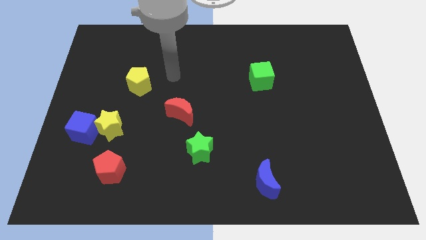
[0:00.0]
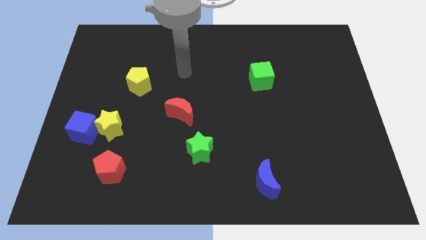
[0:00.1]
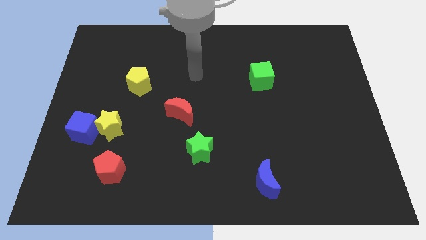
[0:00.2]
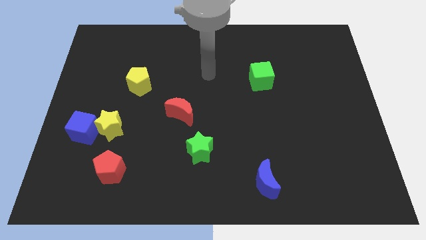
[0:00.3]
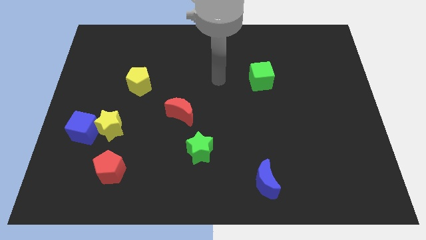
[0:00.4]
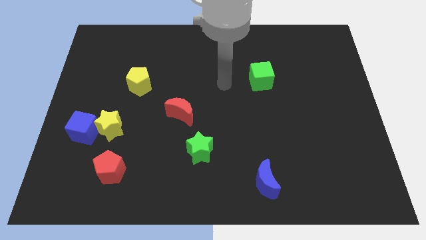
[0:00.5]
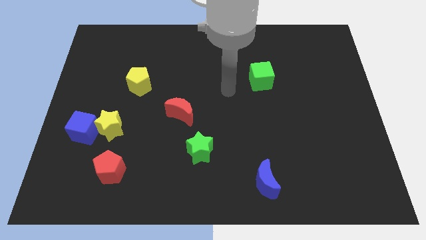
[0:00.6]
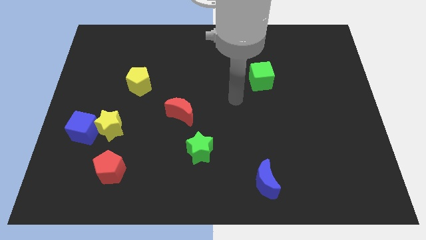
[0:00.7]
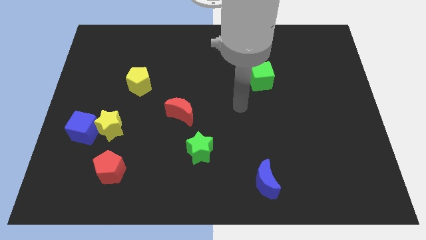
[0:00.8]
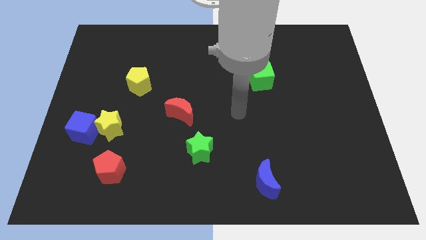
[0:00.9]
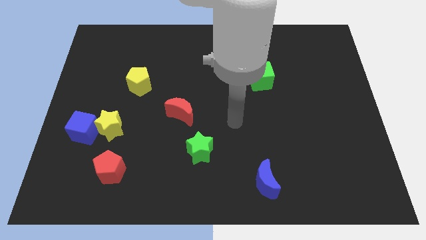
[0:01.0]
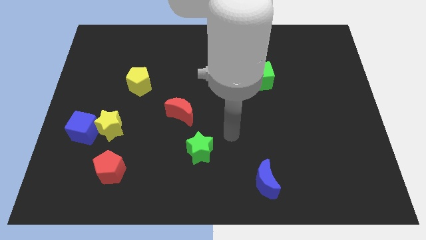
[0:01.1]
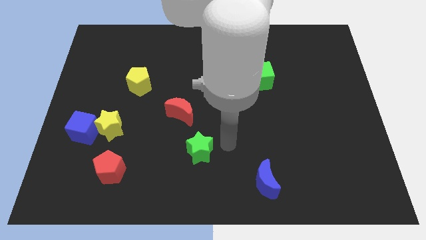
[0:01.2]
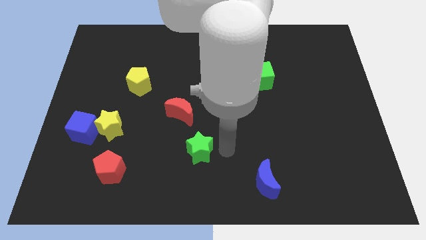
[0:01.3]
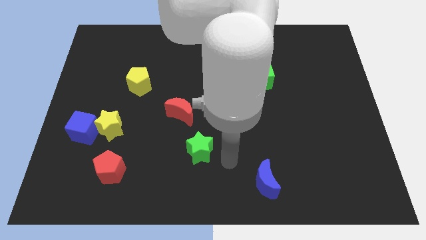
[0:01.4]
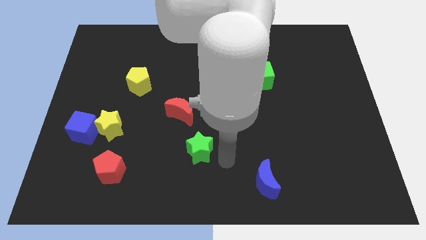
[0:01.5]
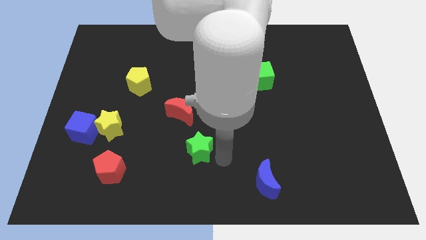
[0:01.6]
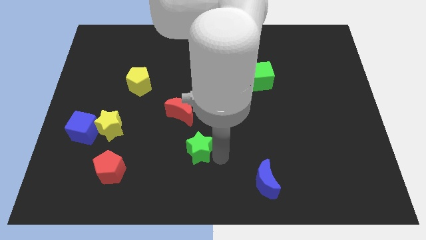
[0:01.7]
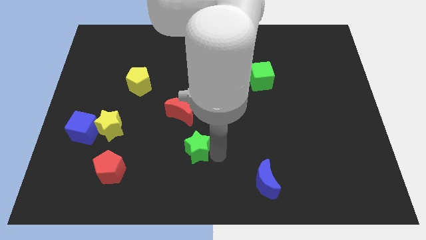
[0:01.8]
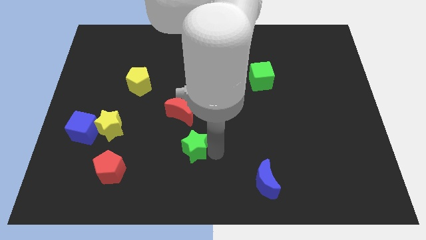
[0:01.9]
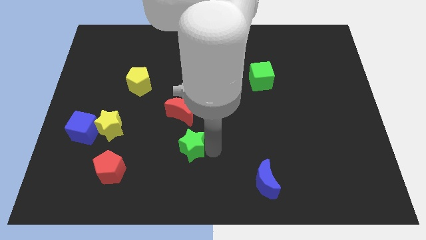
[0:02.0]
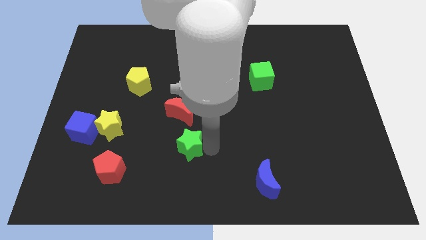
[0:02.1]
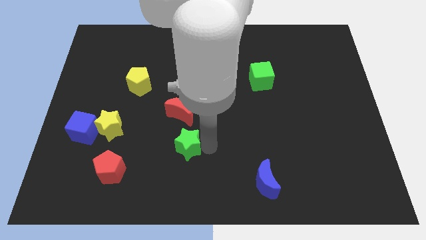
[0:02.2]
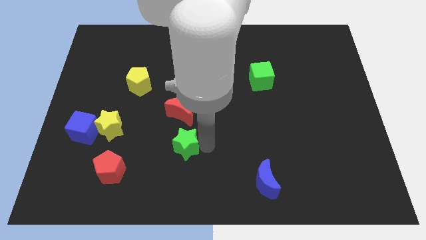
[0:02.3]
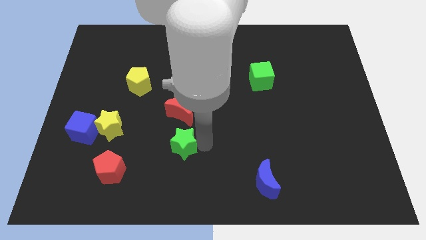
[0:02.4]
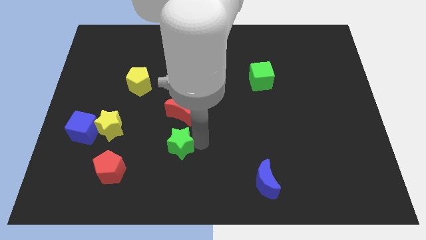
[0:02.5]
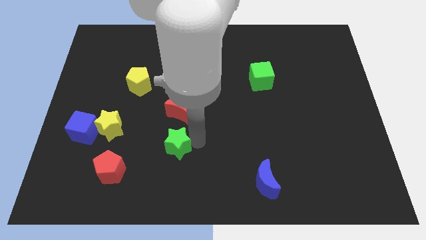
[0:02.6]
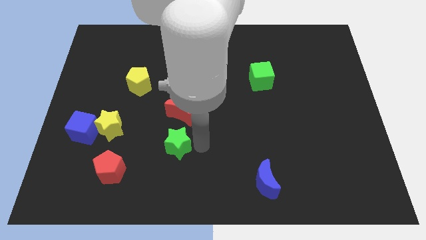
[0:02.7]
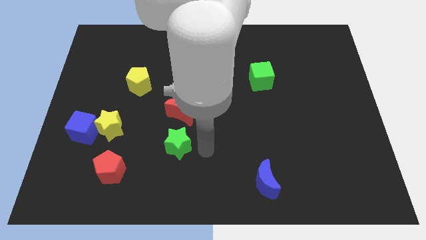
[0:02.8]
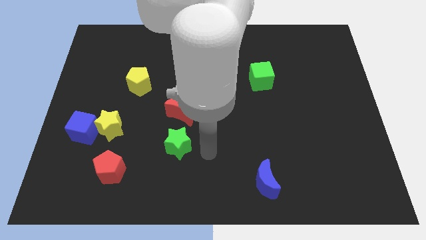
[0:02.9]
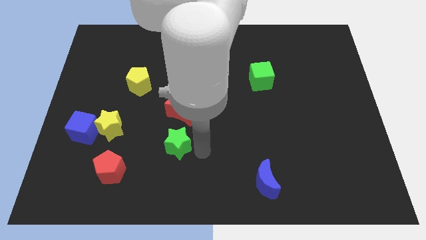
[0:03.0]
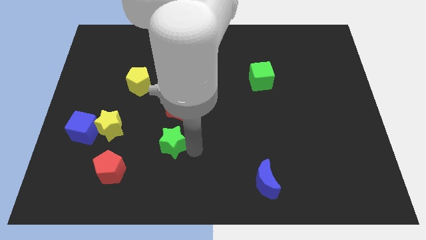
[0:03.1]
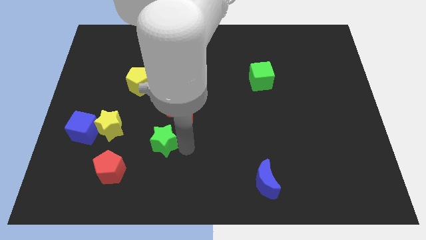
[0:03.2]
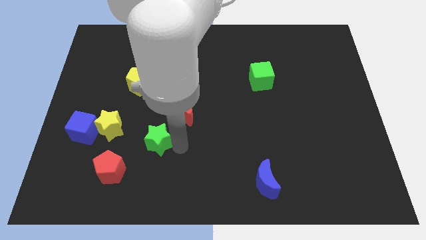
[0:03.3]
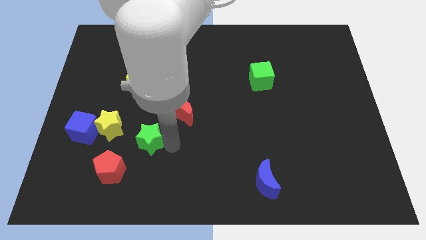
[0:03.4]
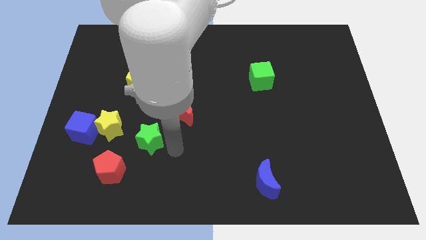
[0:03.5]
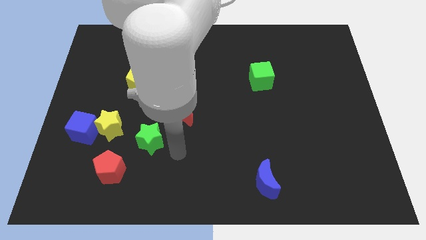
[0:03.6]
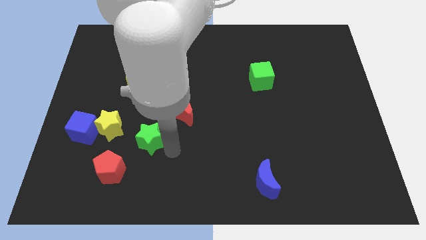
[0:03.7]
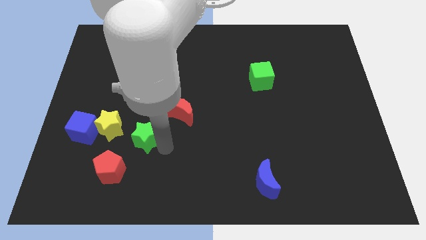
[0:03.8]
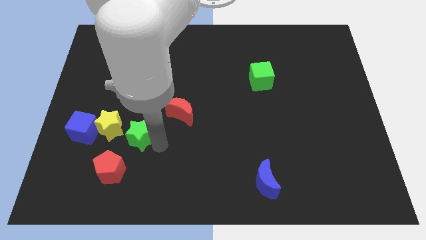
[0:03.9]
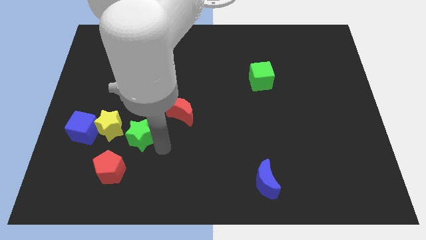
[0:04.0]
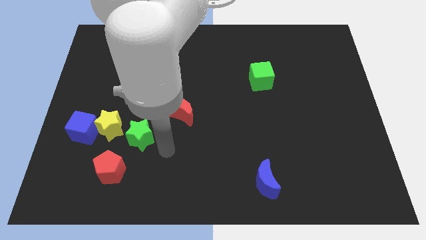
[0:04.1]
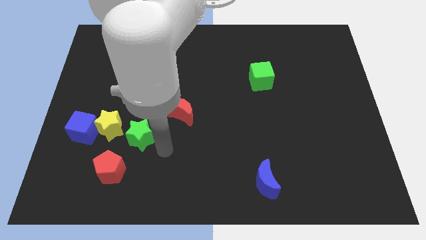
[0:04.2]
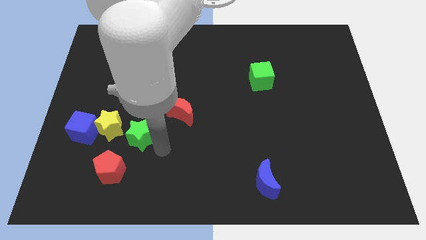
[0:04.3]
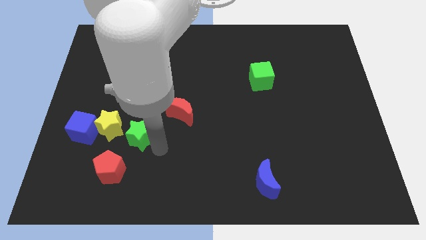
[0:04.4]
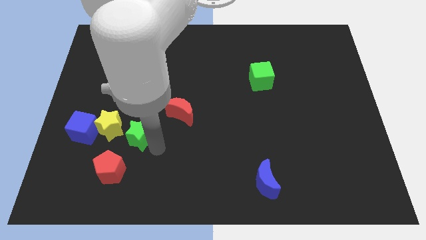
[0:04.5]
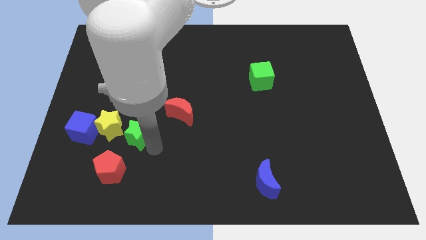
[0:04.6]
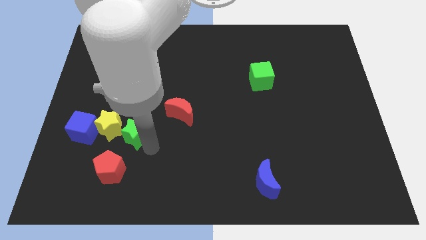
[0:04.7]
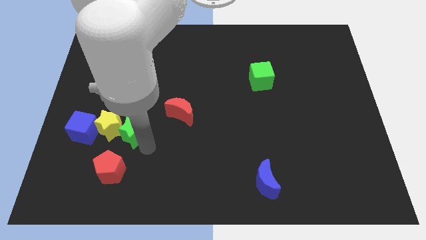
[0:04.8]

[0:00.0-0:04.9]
move the green star close to the yellow star

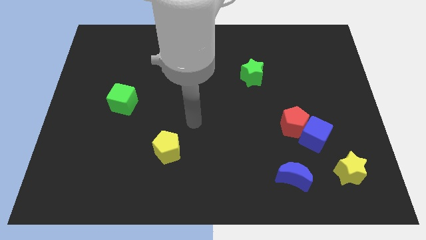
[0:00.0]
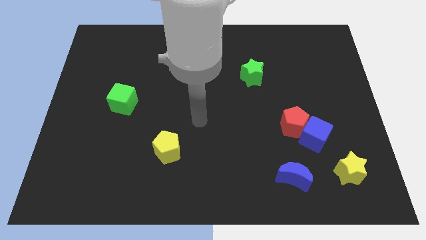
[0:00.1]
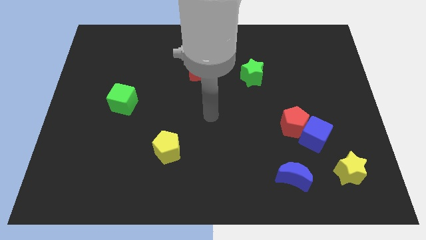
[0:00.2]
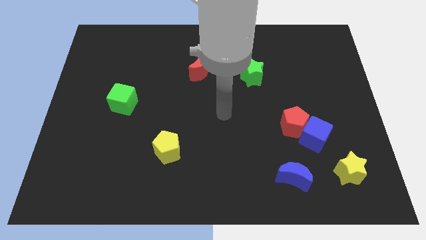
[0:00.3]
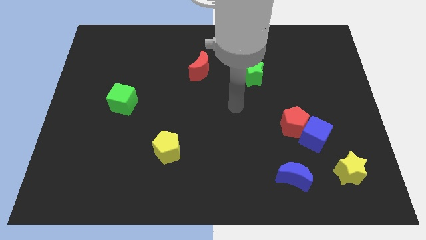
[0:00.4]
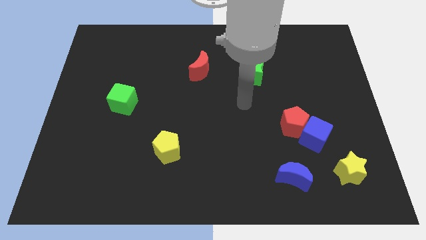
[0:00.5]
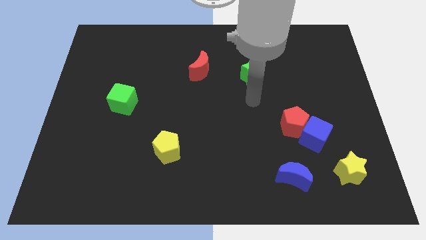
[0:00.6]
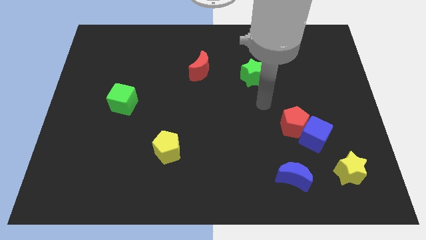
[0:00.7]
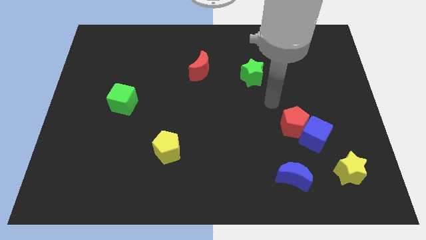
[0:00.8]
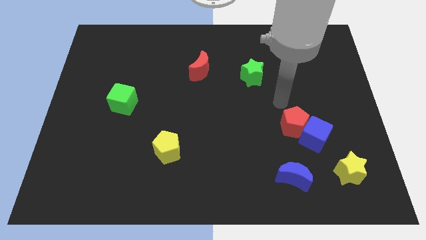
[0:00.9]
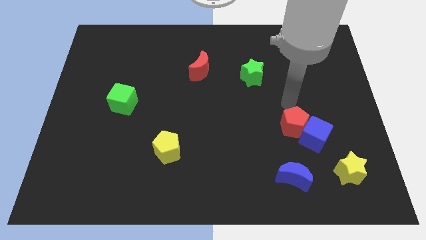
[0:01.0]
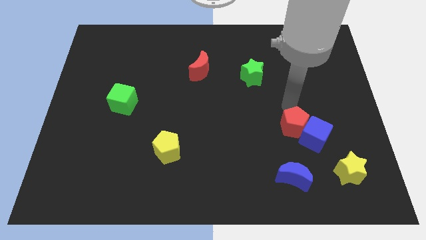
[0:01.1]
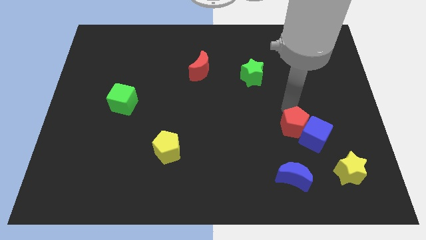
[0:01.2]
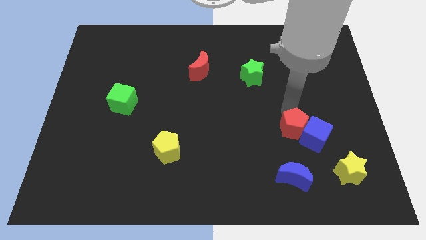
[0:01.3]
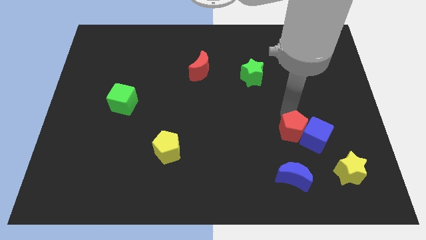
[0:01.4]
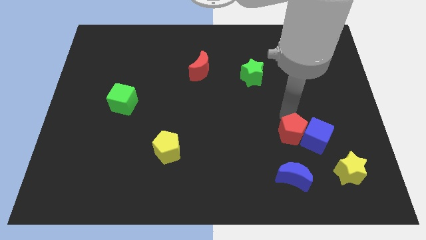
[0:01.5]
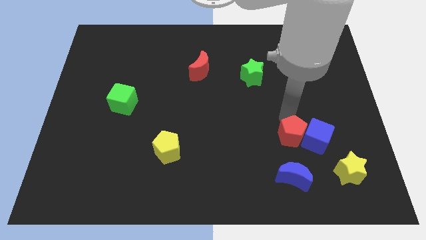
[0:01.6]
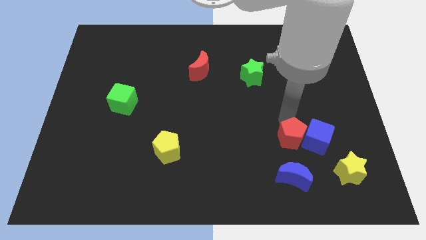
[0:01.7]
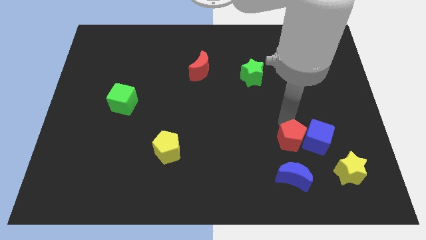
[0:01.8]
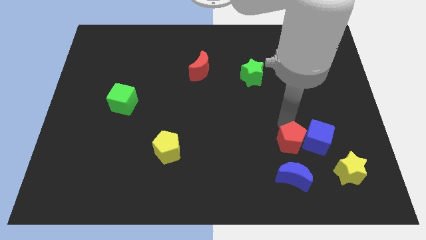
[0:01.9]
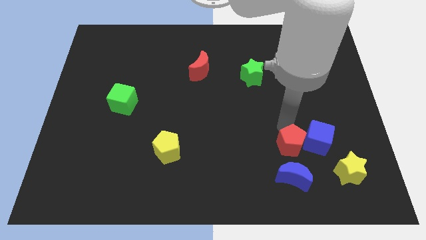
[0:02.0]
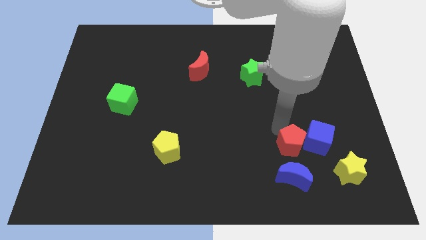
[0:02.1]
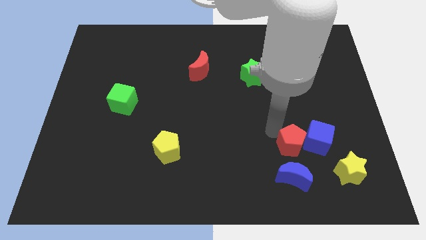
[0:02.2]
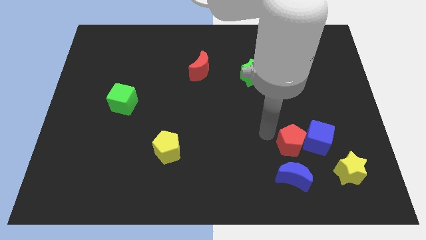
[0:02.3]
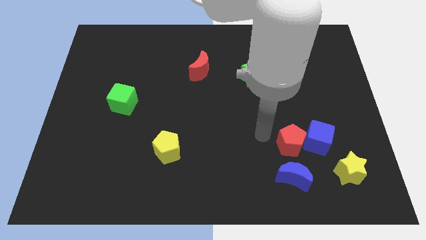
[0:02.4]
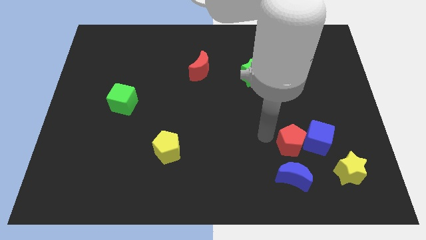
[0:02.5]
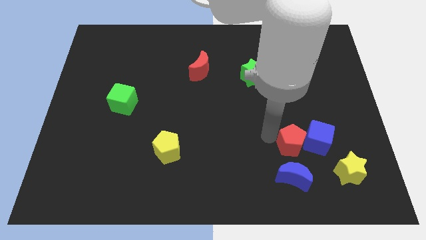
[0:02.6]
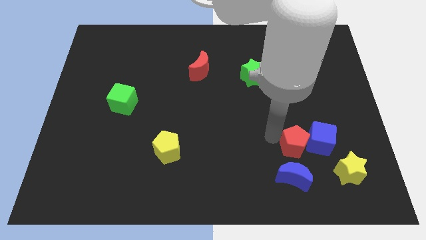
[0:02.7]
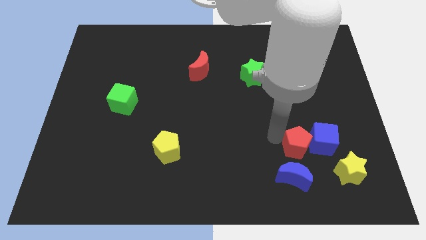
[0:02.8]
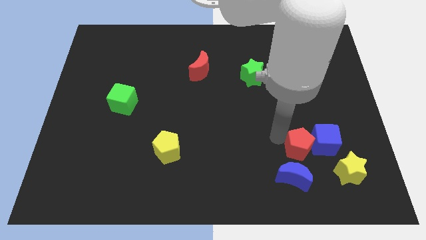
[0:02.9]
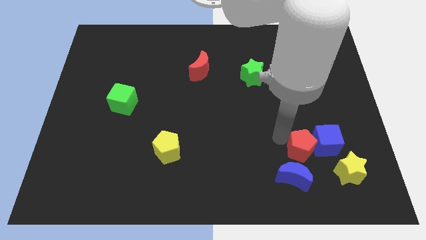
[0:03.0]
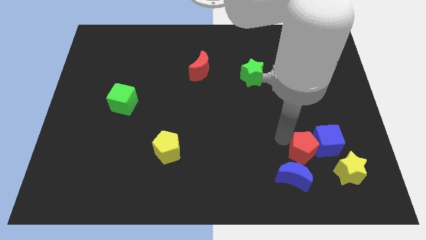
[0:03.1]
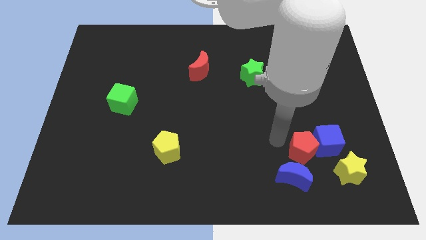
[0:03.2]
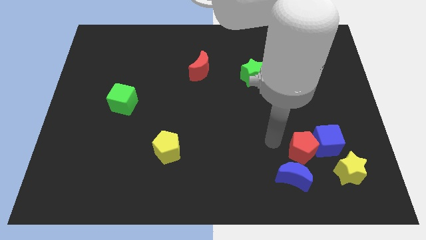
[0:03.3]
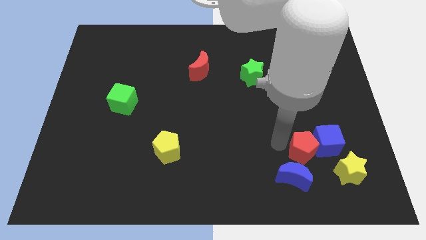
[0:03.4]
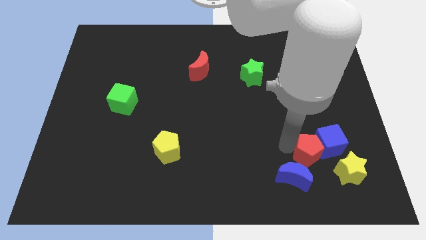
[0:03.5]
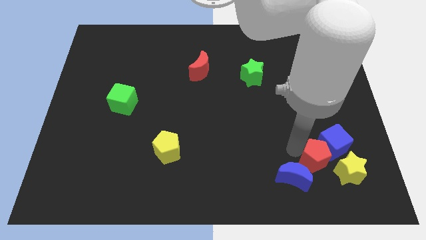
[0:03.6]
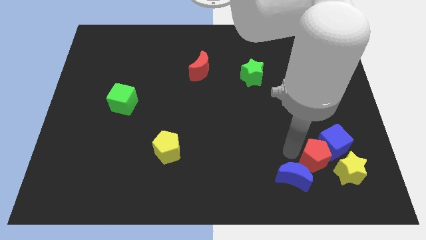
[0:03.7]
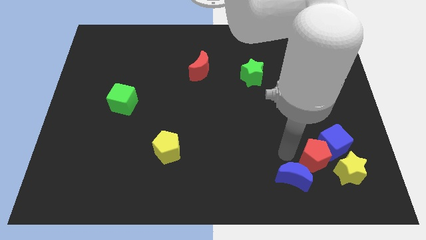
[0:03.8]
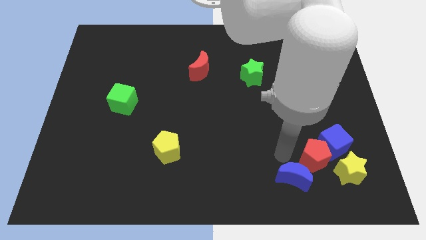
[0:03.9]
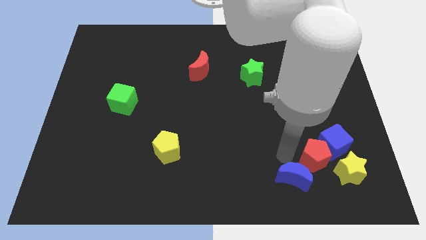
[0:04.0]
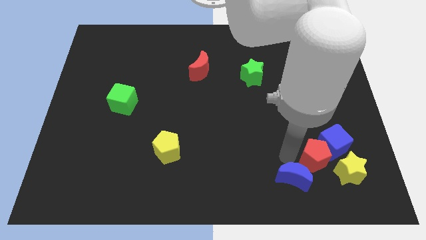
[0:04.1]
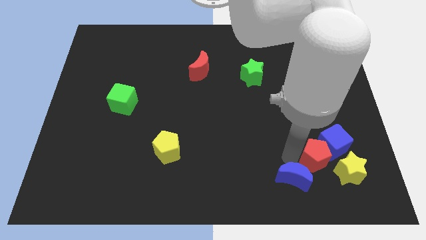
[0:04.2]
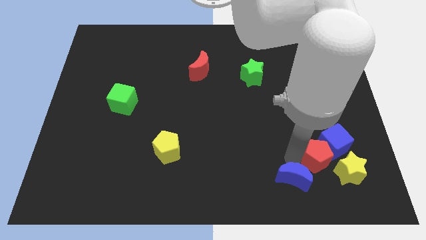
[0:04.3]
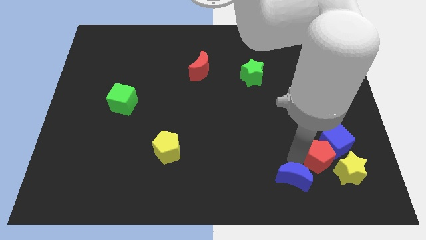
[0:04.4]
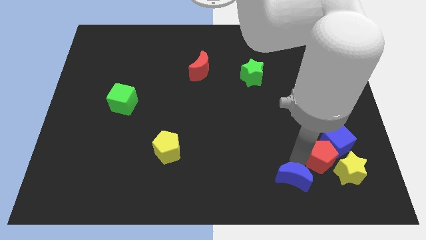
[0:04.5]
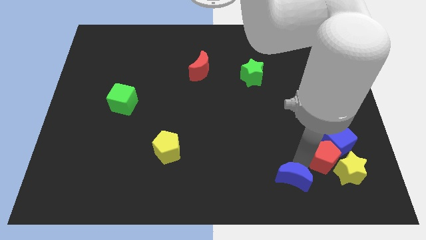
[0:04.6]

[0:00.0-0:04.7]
slide the red pentagon close to the yellow star
